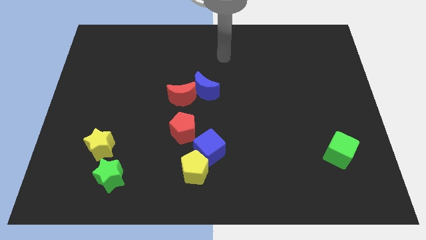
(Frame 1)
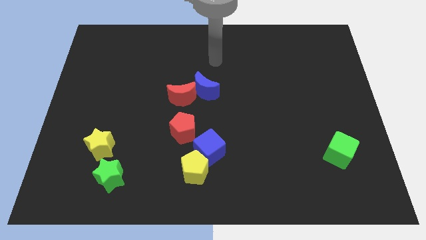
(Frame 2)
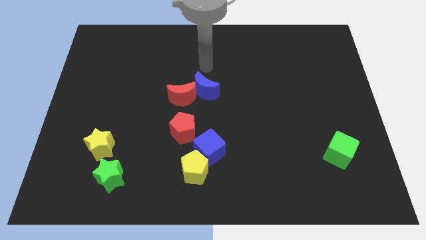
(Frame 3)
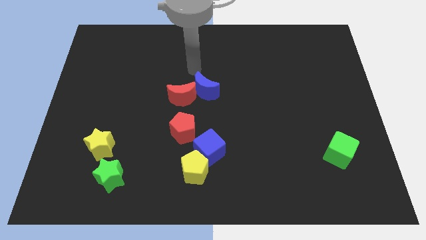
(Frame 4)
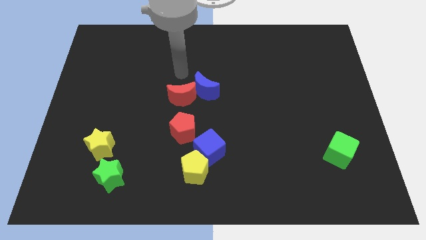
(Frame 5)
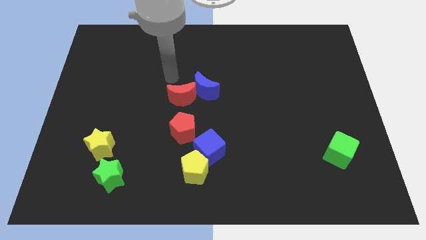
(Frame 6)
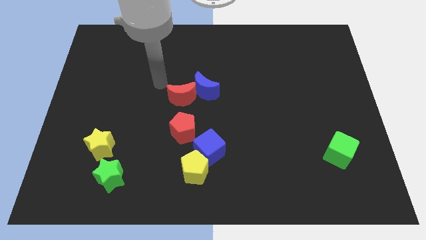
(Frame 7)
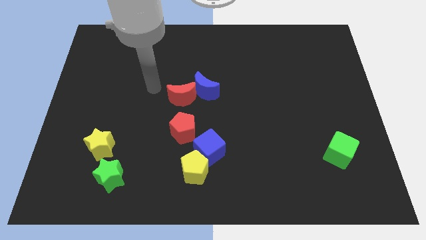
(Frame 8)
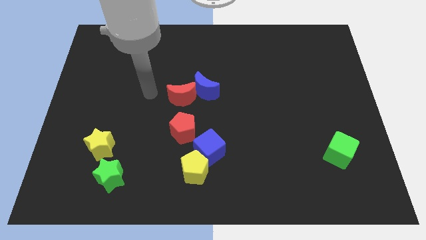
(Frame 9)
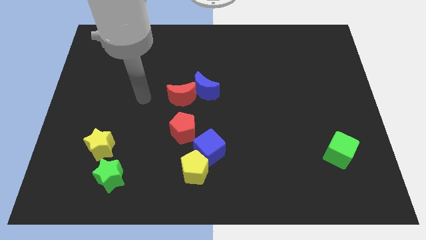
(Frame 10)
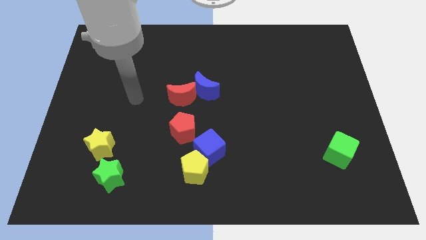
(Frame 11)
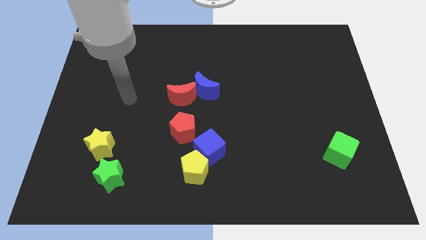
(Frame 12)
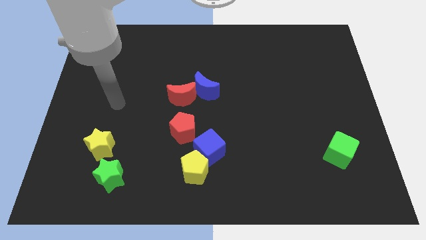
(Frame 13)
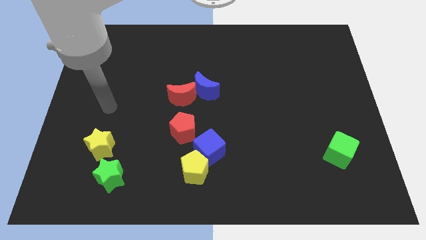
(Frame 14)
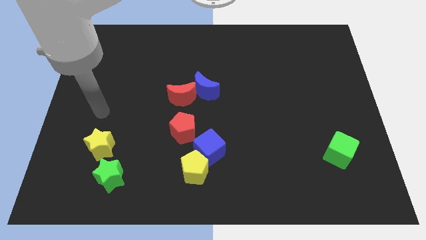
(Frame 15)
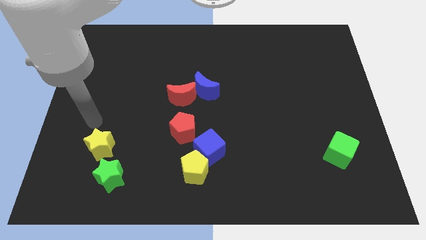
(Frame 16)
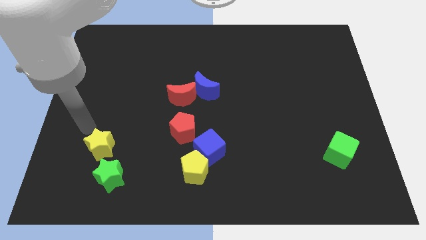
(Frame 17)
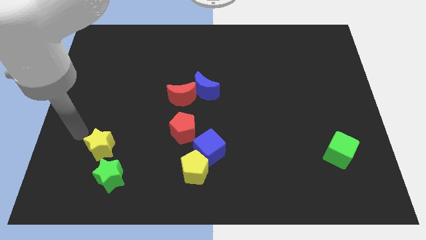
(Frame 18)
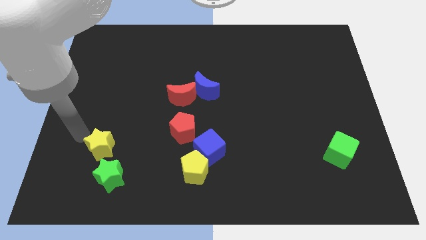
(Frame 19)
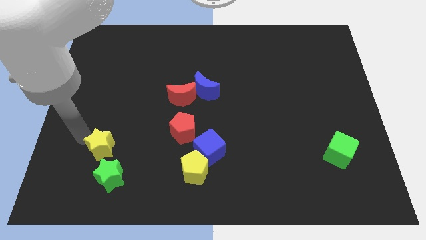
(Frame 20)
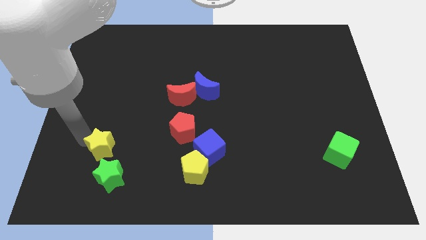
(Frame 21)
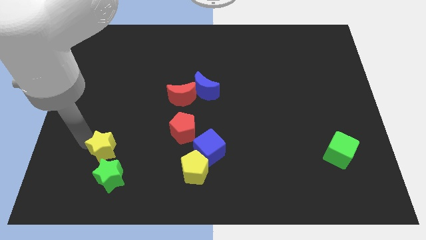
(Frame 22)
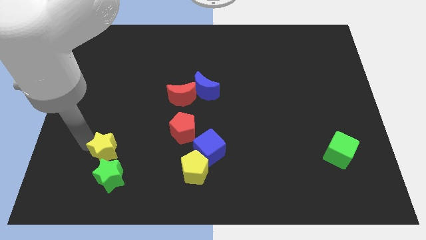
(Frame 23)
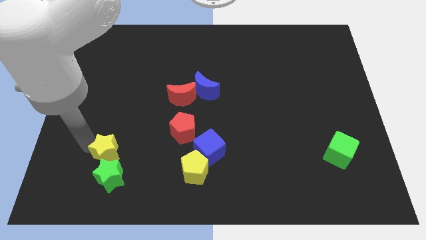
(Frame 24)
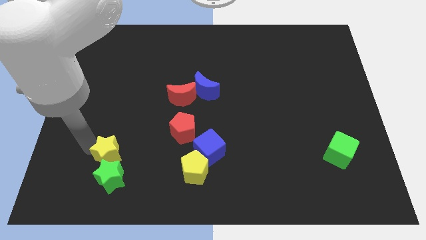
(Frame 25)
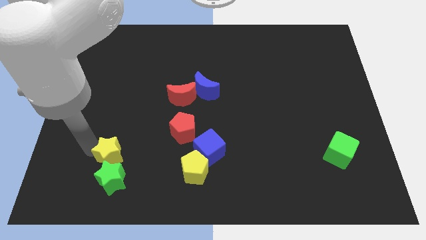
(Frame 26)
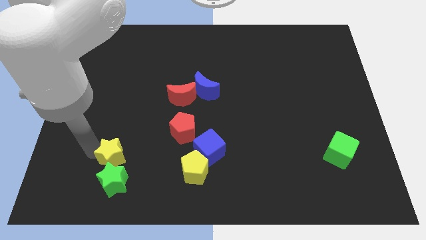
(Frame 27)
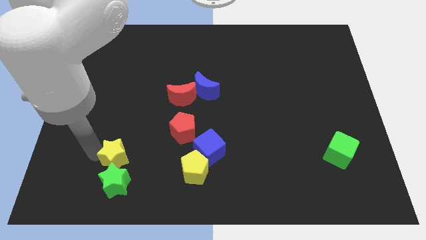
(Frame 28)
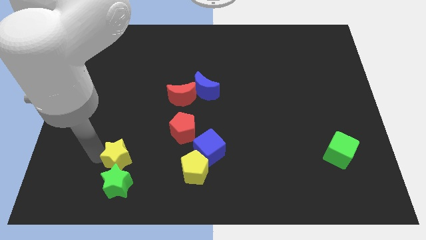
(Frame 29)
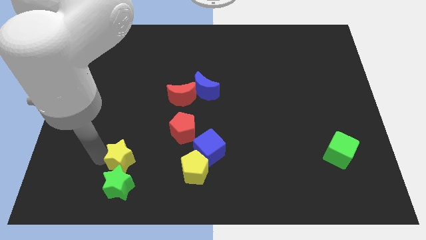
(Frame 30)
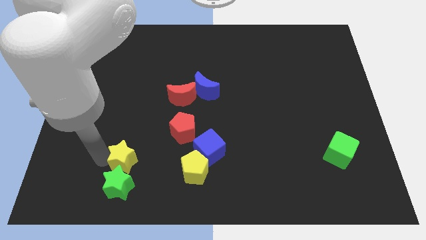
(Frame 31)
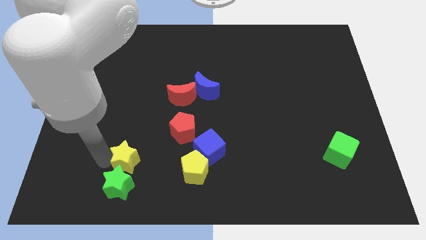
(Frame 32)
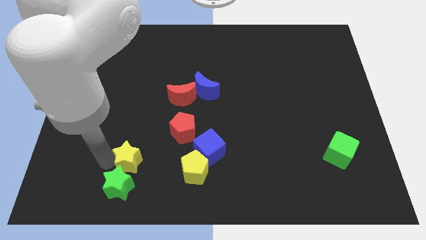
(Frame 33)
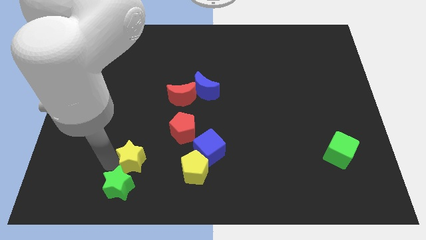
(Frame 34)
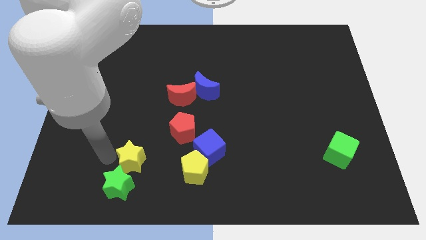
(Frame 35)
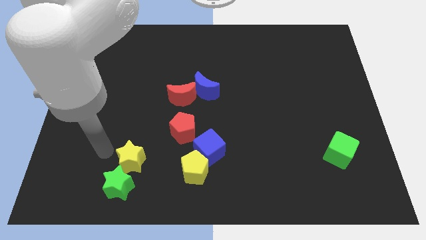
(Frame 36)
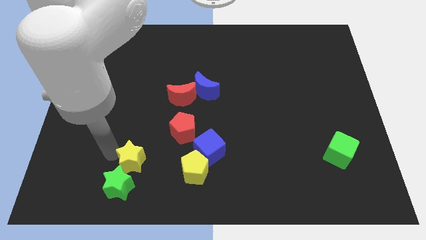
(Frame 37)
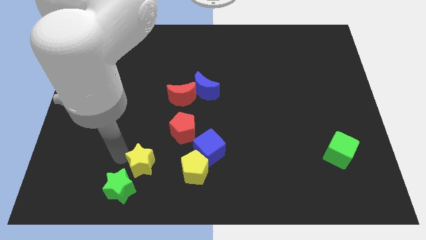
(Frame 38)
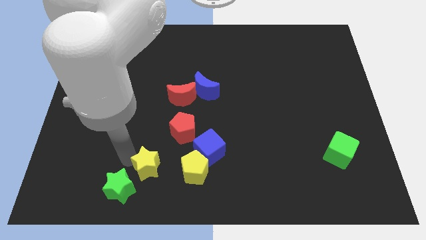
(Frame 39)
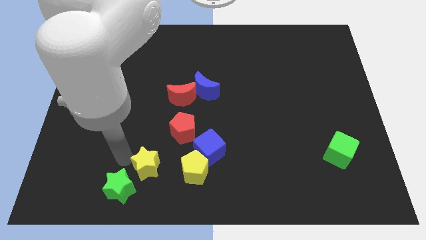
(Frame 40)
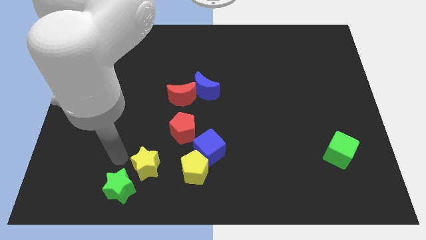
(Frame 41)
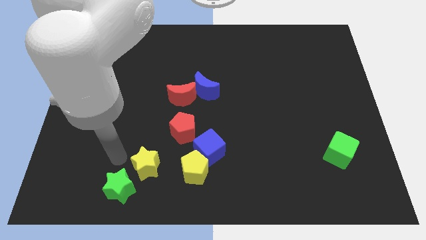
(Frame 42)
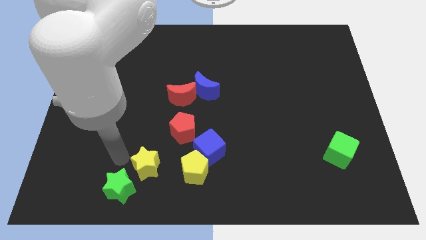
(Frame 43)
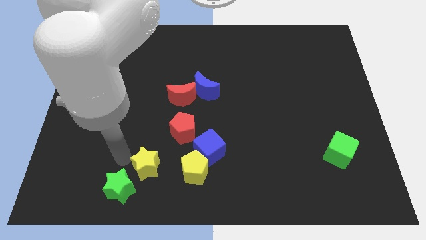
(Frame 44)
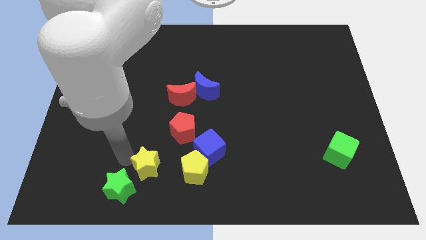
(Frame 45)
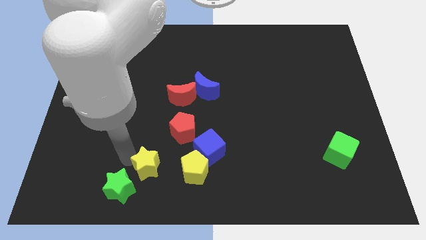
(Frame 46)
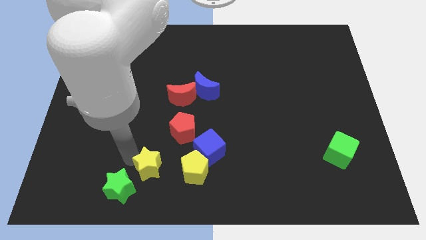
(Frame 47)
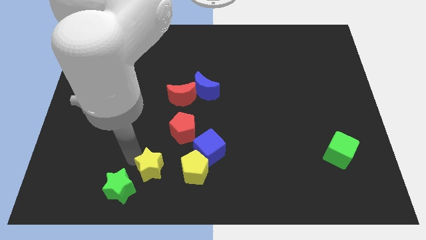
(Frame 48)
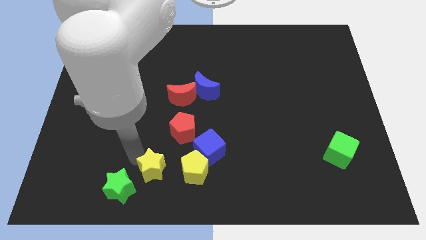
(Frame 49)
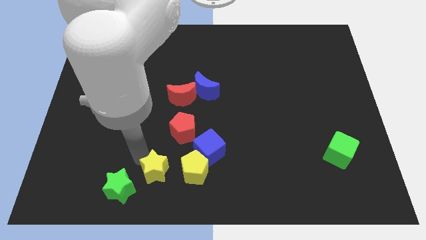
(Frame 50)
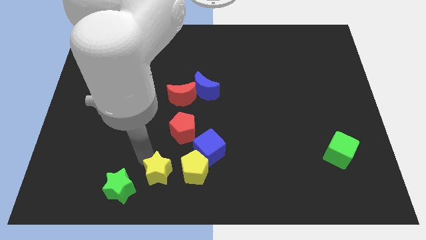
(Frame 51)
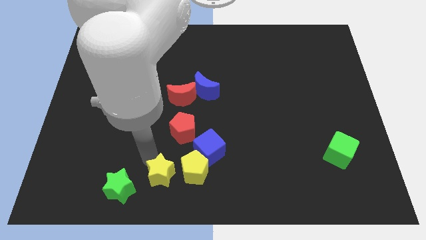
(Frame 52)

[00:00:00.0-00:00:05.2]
move the yellow star to the bottom side

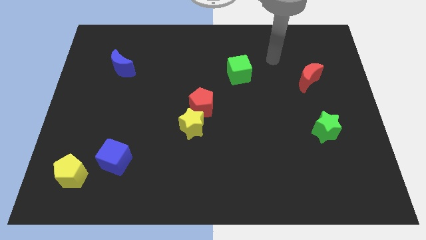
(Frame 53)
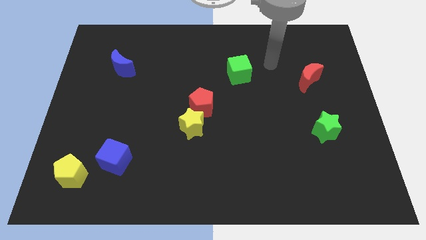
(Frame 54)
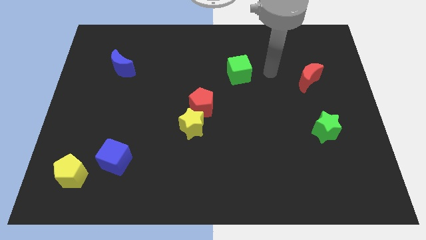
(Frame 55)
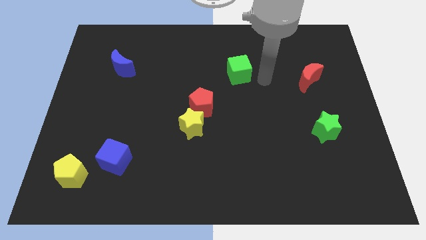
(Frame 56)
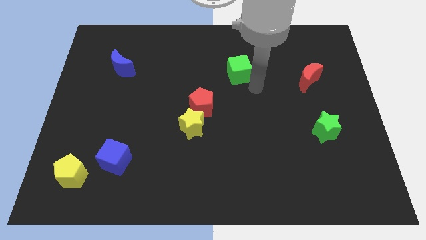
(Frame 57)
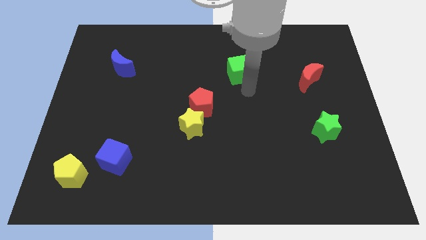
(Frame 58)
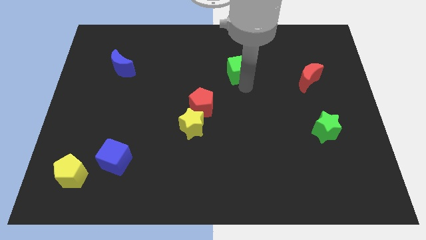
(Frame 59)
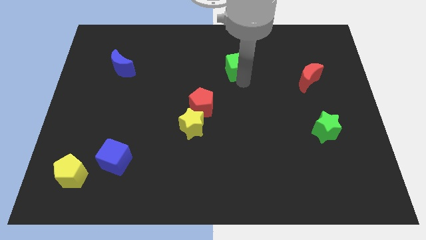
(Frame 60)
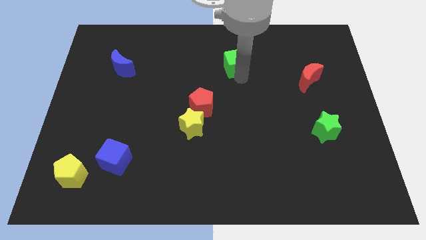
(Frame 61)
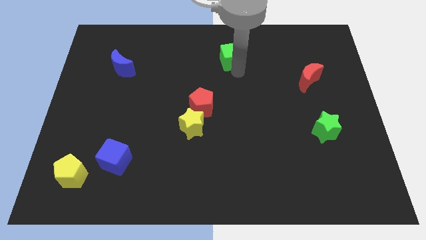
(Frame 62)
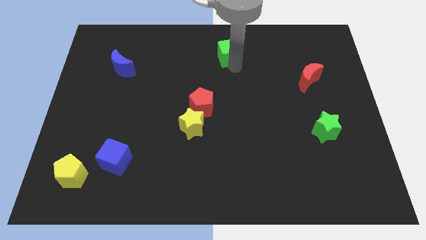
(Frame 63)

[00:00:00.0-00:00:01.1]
push the green cube to the top

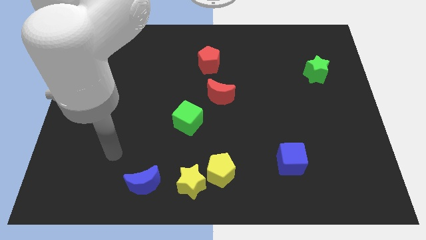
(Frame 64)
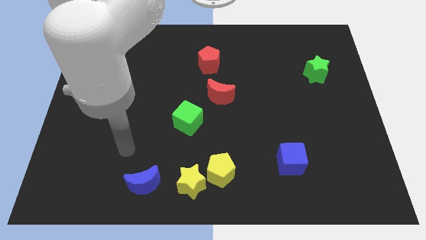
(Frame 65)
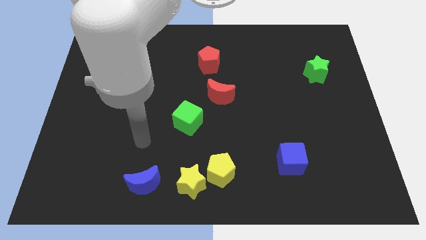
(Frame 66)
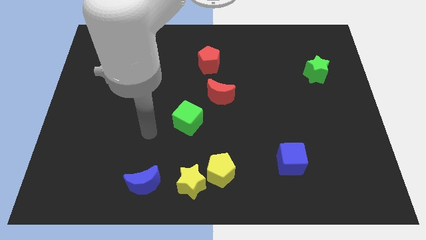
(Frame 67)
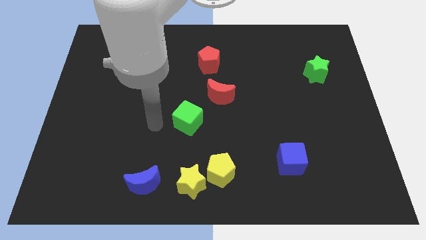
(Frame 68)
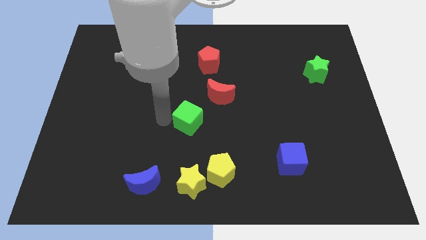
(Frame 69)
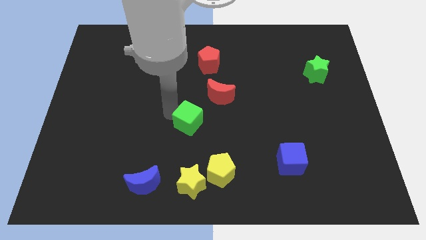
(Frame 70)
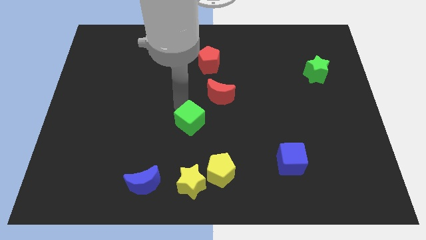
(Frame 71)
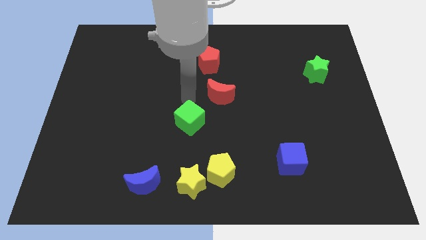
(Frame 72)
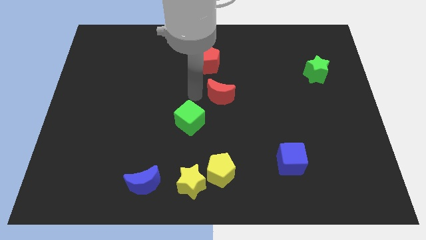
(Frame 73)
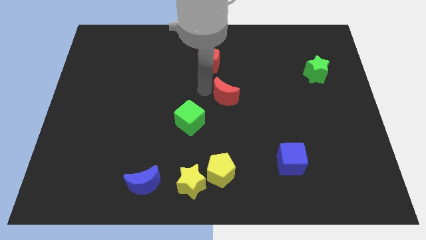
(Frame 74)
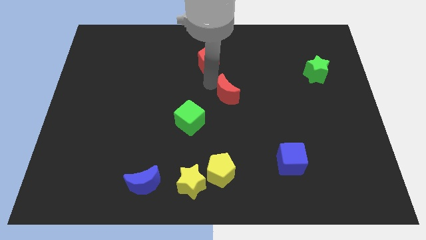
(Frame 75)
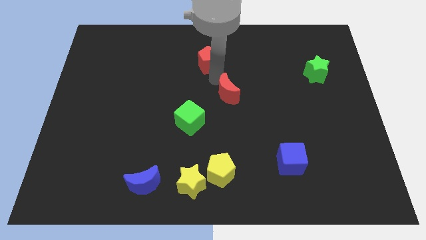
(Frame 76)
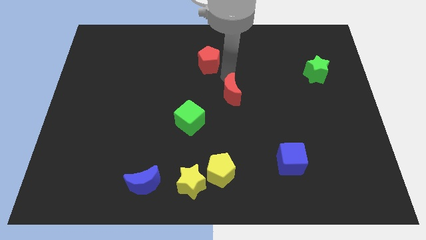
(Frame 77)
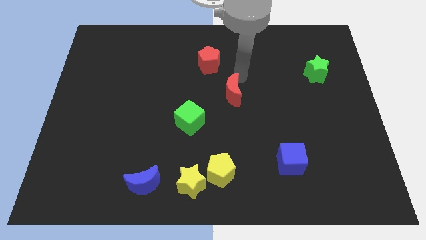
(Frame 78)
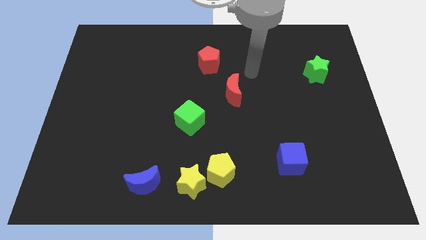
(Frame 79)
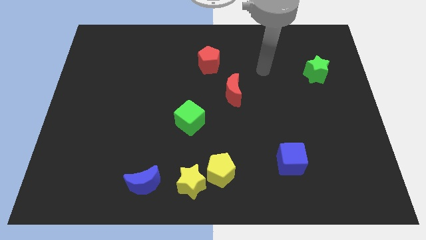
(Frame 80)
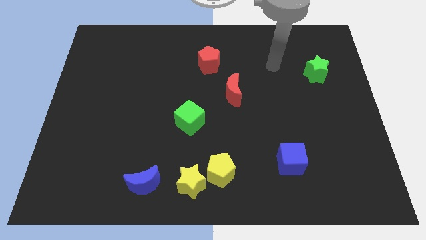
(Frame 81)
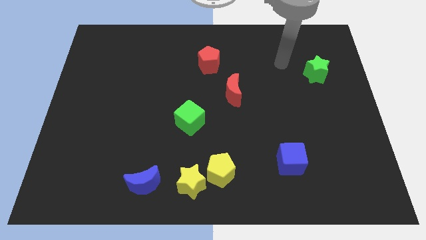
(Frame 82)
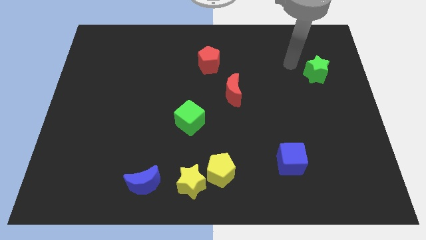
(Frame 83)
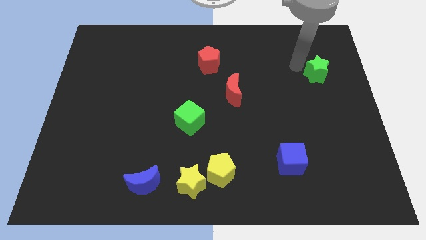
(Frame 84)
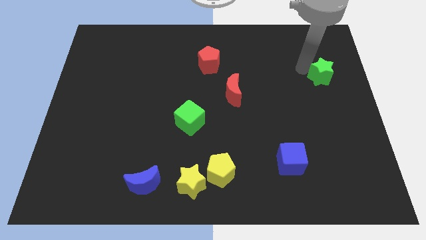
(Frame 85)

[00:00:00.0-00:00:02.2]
slide the green star to the right side
